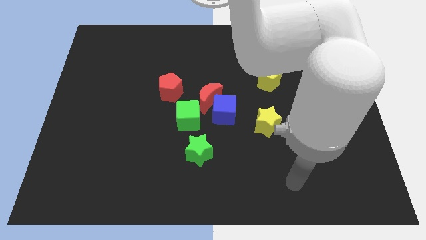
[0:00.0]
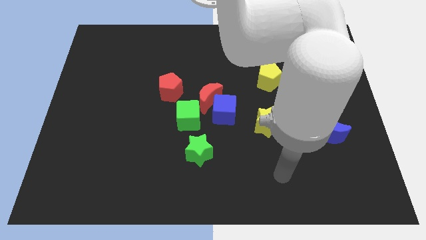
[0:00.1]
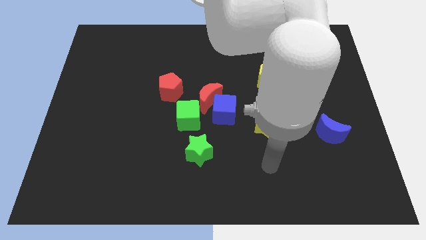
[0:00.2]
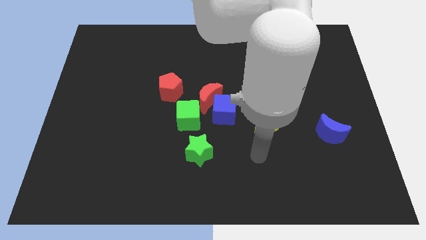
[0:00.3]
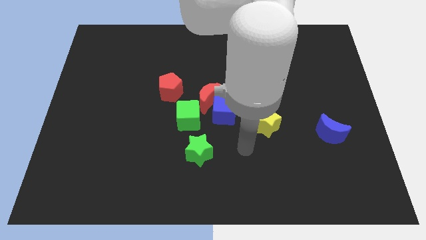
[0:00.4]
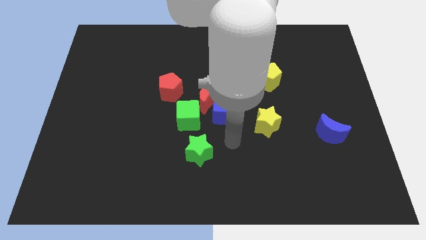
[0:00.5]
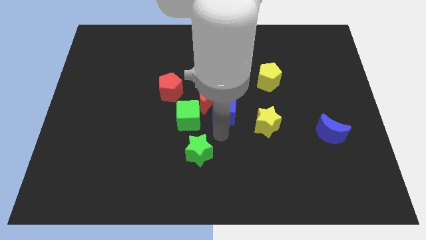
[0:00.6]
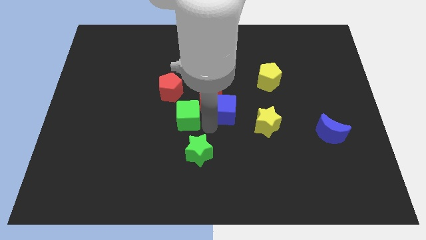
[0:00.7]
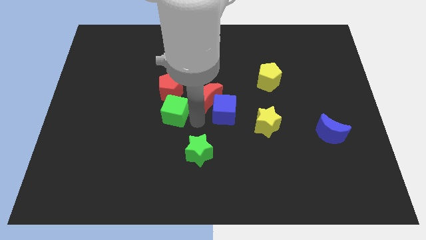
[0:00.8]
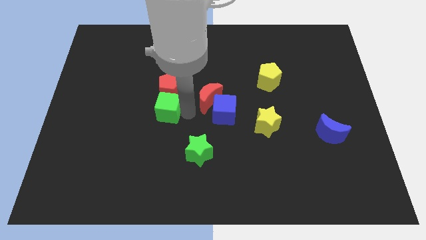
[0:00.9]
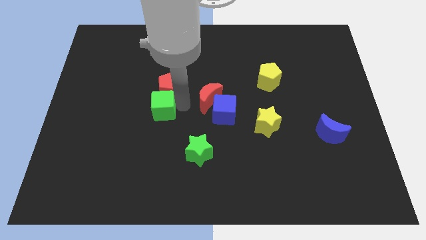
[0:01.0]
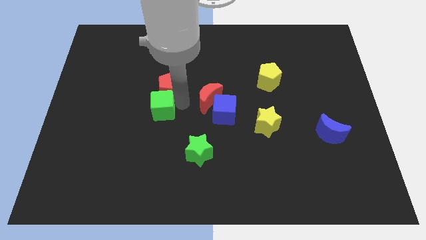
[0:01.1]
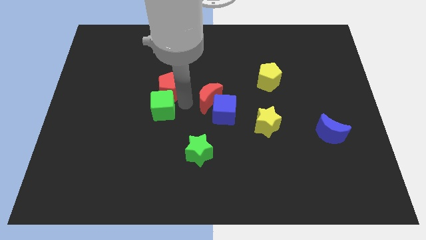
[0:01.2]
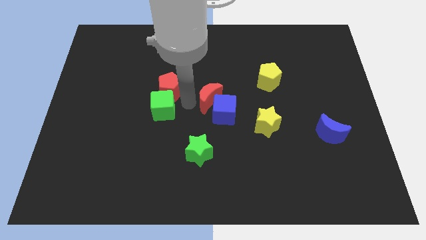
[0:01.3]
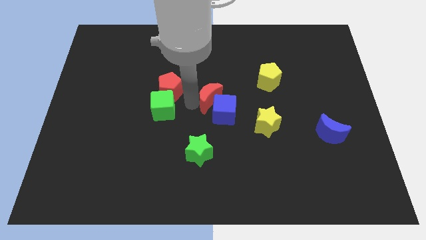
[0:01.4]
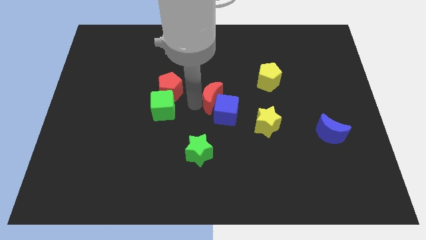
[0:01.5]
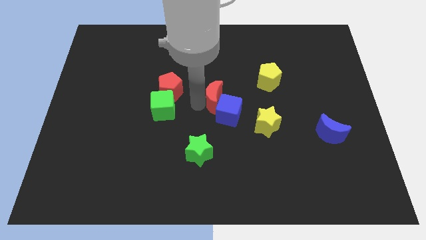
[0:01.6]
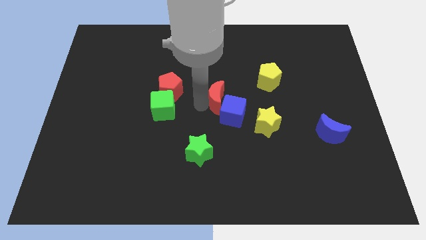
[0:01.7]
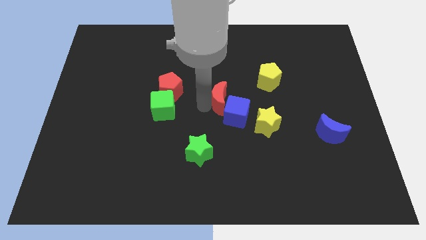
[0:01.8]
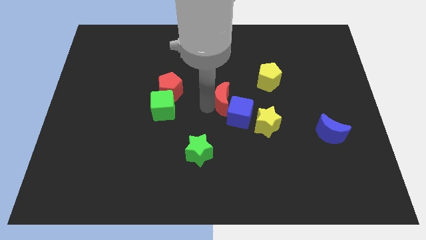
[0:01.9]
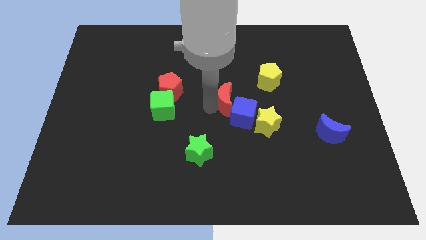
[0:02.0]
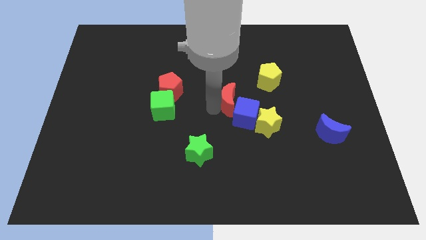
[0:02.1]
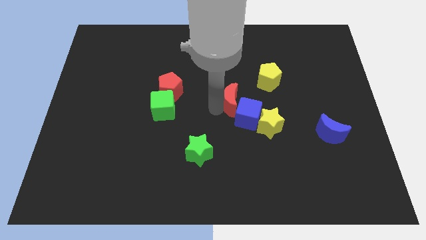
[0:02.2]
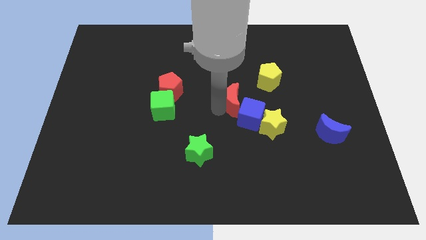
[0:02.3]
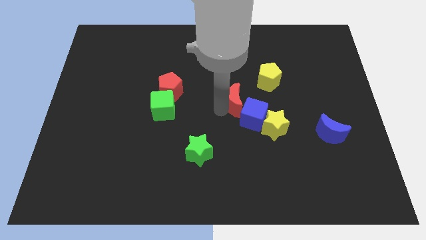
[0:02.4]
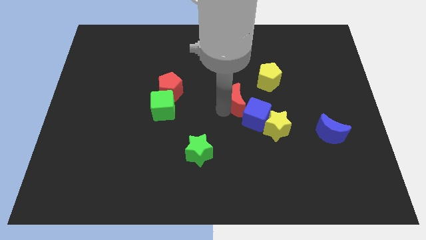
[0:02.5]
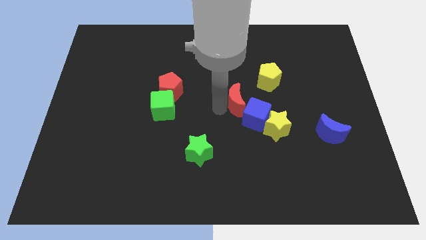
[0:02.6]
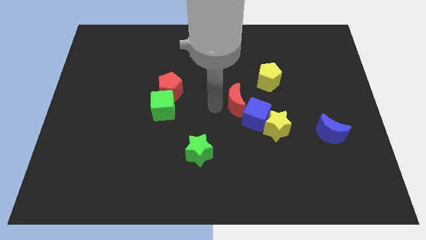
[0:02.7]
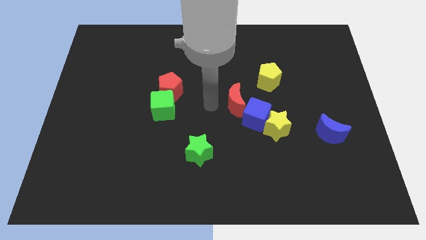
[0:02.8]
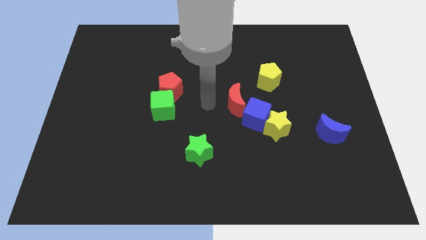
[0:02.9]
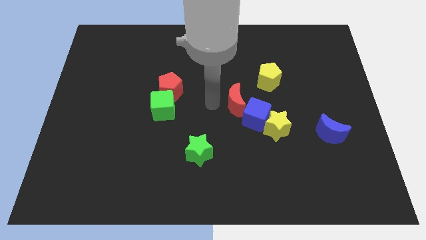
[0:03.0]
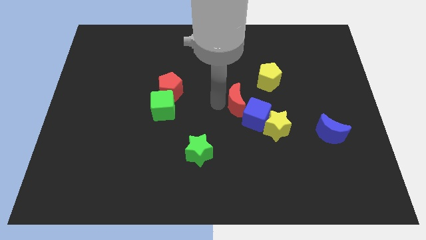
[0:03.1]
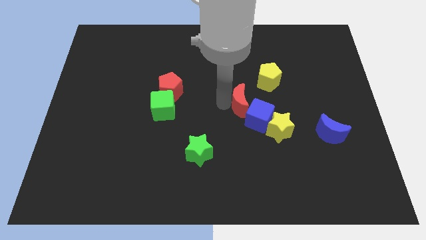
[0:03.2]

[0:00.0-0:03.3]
move the red moon away from the blue cube, green cube, and red pentagon

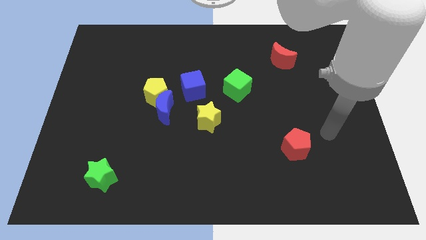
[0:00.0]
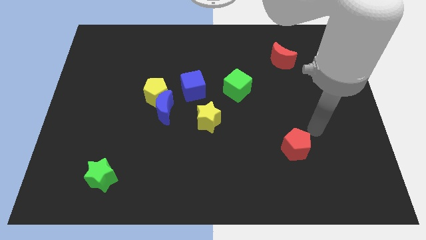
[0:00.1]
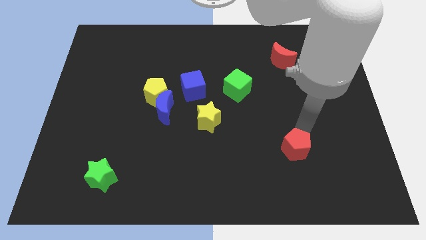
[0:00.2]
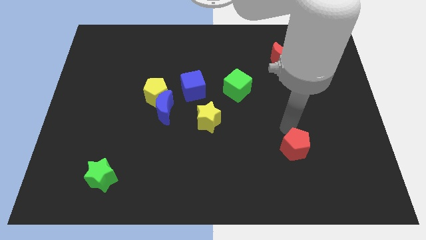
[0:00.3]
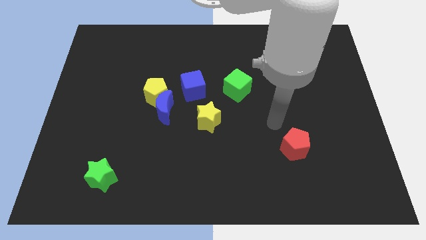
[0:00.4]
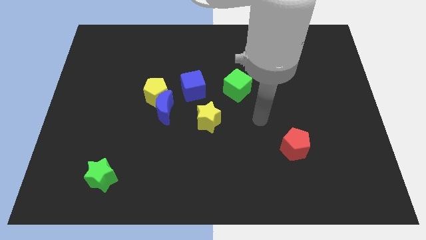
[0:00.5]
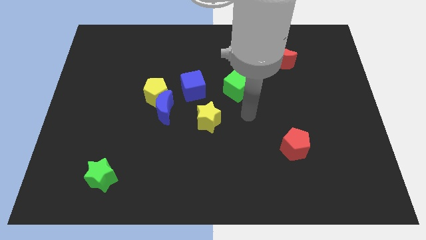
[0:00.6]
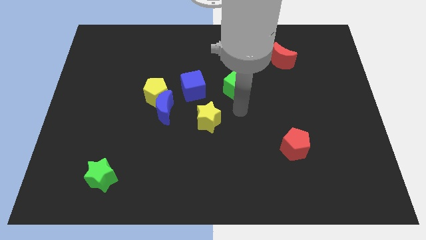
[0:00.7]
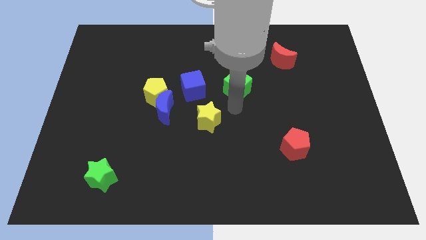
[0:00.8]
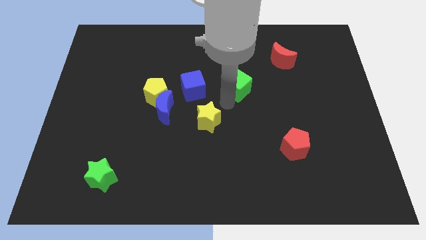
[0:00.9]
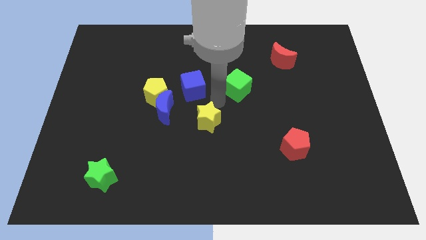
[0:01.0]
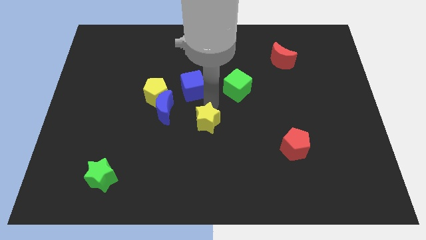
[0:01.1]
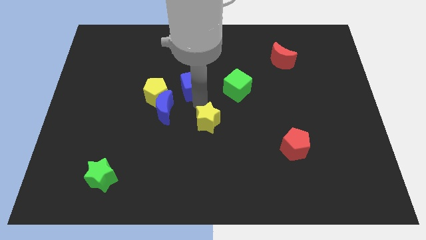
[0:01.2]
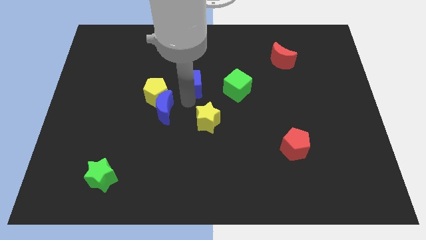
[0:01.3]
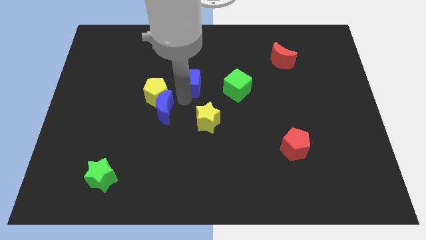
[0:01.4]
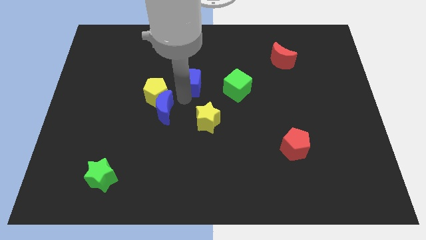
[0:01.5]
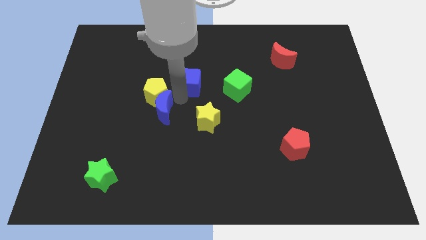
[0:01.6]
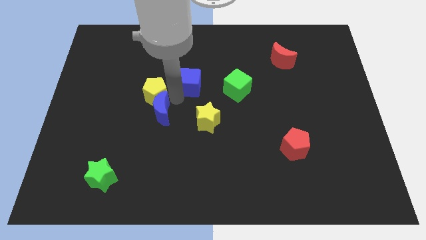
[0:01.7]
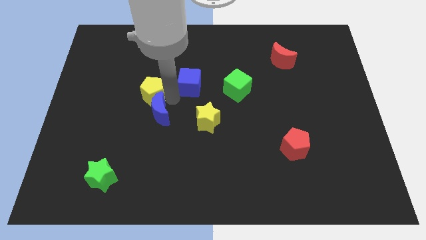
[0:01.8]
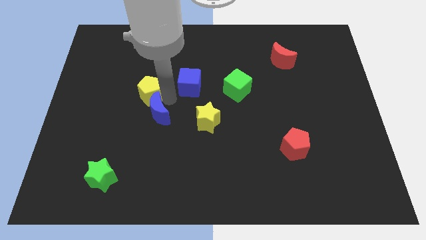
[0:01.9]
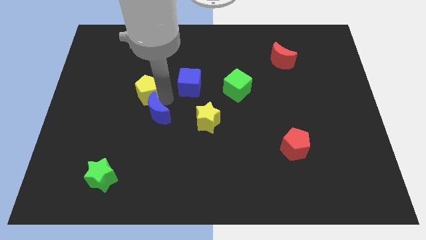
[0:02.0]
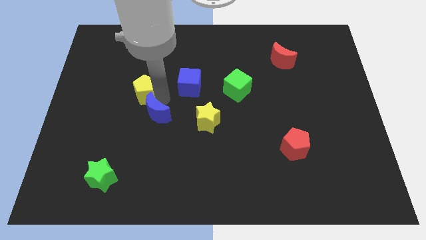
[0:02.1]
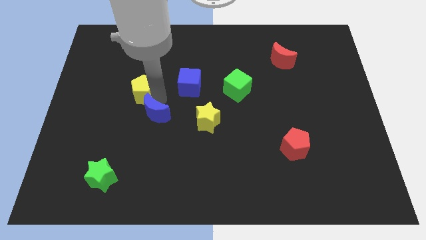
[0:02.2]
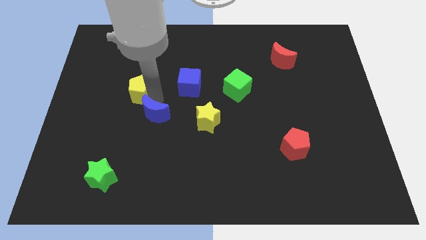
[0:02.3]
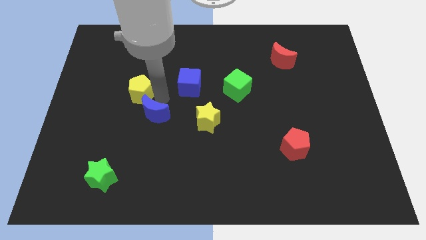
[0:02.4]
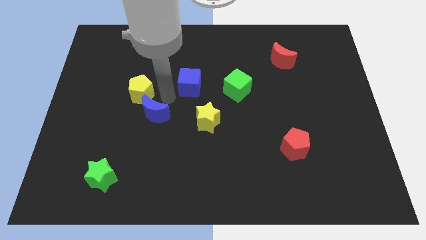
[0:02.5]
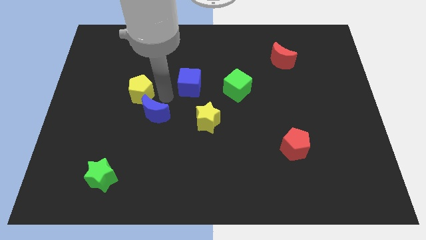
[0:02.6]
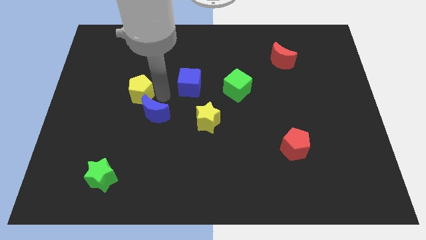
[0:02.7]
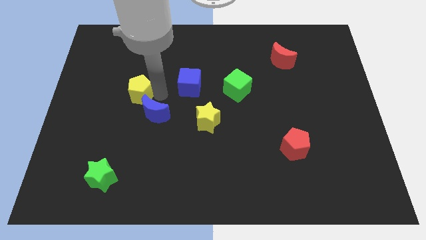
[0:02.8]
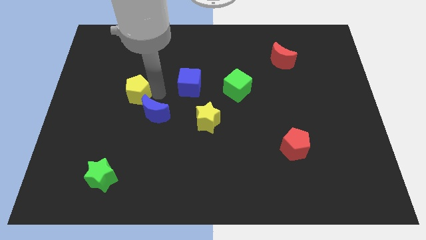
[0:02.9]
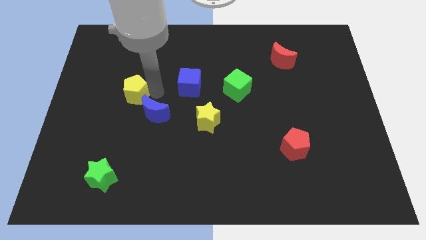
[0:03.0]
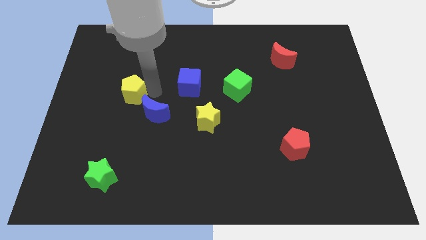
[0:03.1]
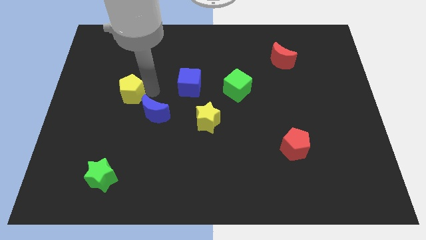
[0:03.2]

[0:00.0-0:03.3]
separate the yellow pentagon from the blue moon and blue cube

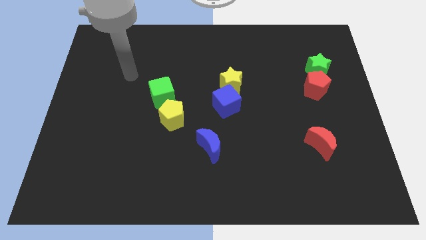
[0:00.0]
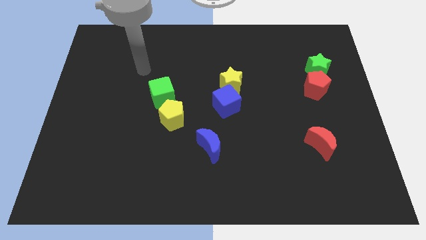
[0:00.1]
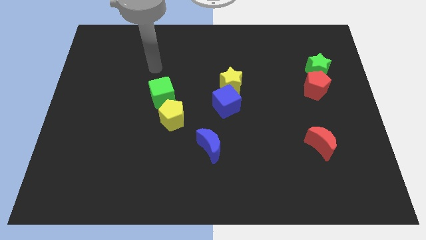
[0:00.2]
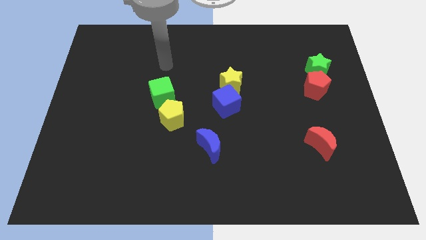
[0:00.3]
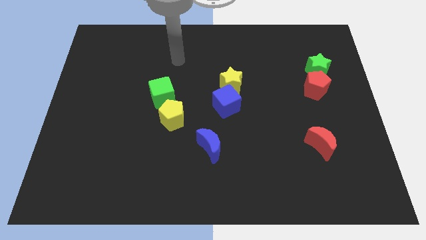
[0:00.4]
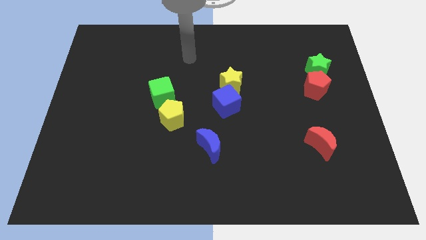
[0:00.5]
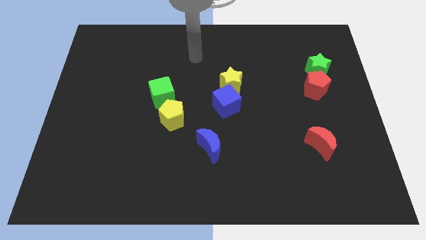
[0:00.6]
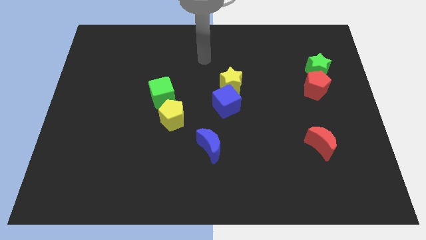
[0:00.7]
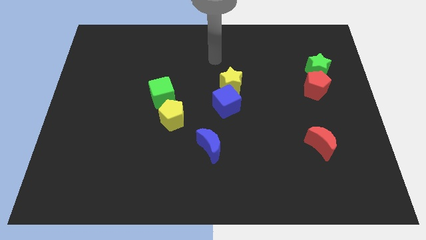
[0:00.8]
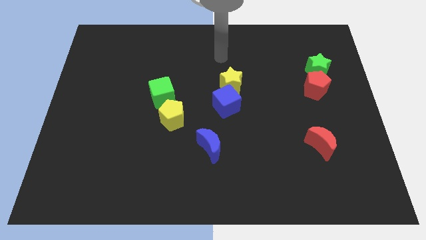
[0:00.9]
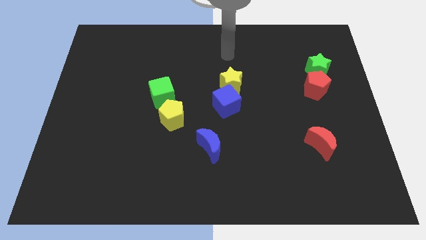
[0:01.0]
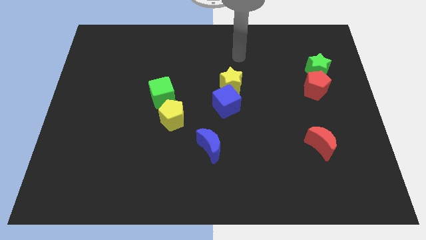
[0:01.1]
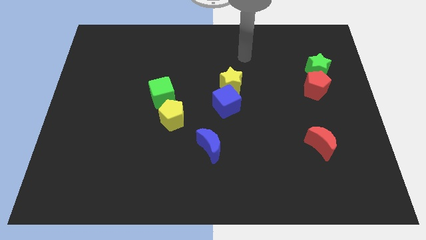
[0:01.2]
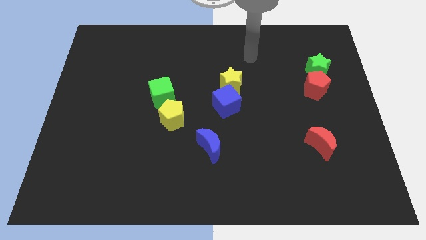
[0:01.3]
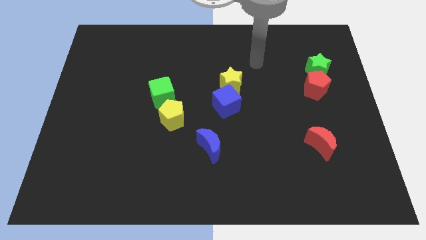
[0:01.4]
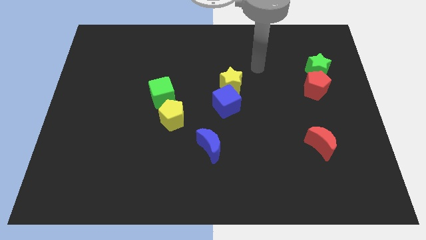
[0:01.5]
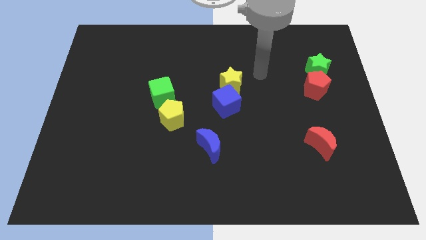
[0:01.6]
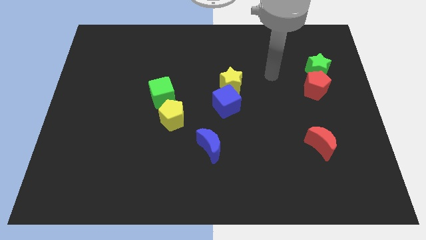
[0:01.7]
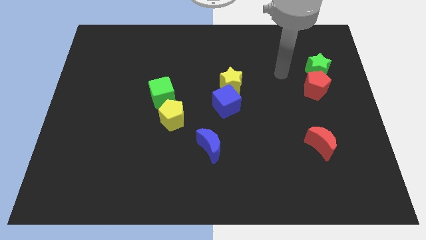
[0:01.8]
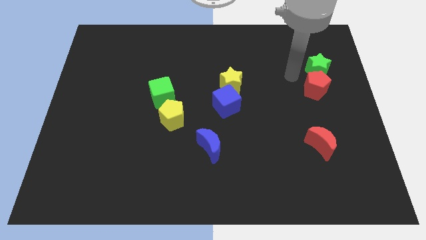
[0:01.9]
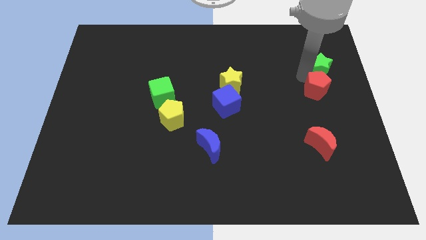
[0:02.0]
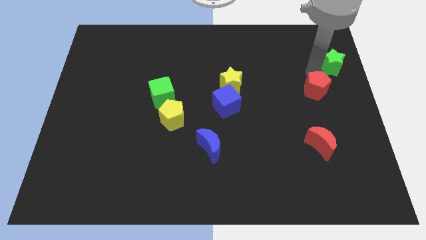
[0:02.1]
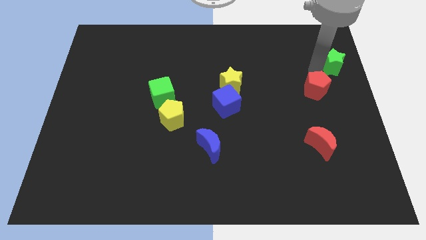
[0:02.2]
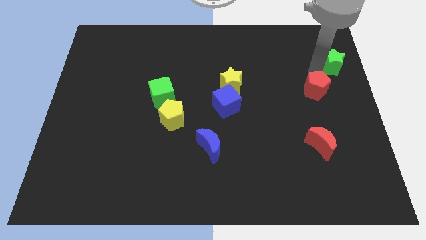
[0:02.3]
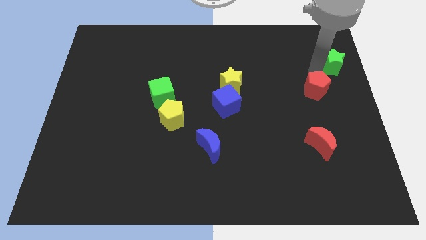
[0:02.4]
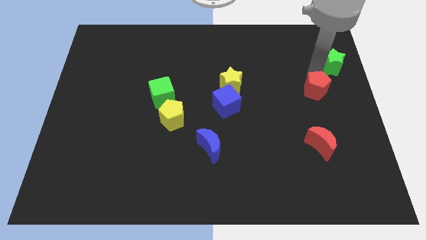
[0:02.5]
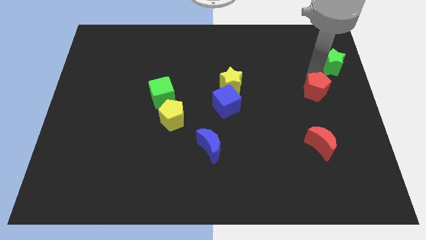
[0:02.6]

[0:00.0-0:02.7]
move the red pentagon away from the green star
